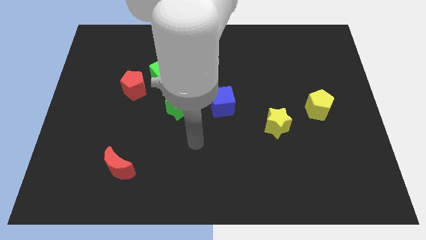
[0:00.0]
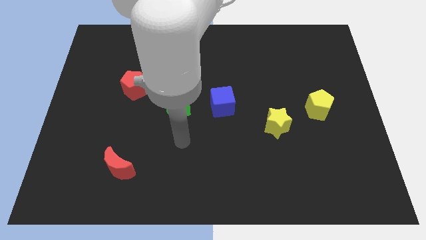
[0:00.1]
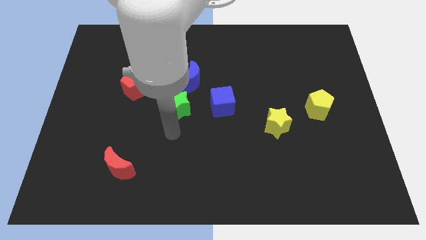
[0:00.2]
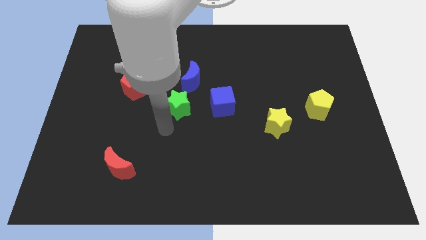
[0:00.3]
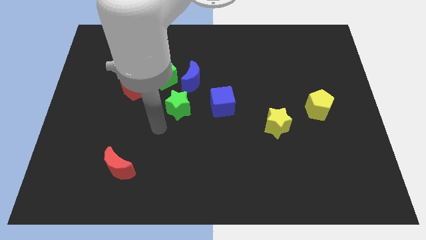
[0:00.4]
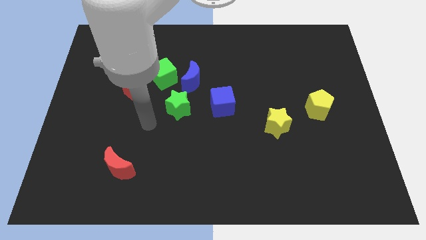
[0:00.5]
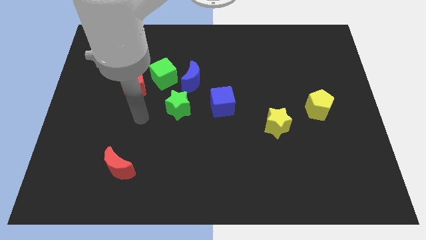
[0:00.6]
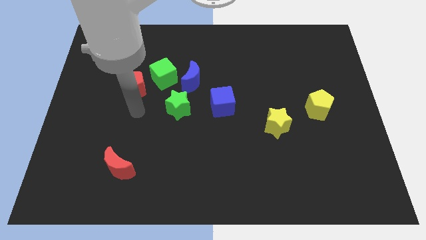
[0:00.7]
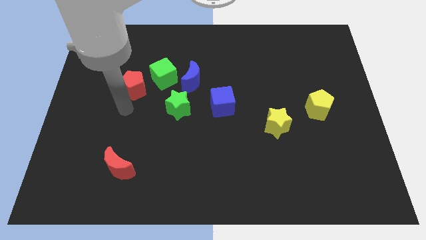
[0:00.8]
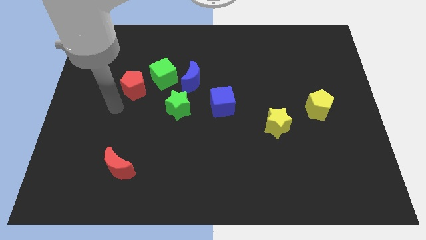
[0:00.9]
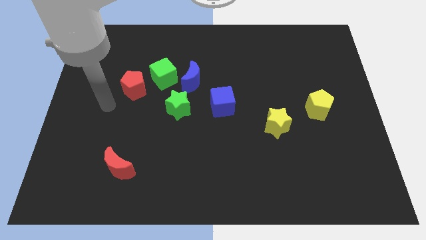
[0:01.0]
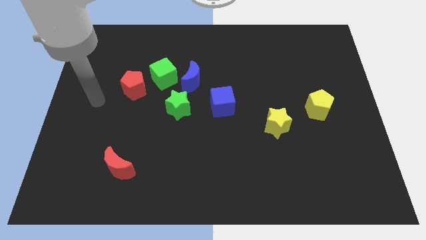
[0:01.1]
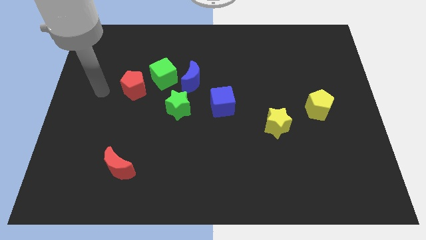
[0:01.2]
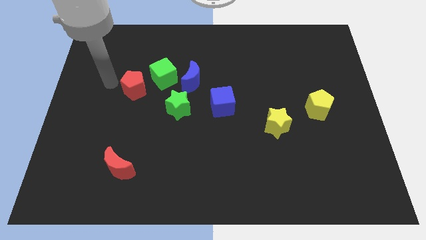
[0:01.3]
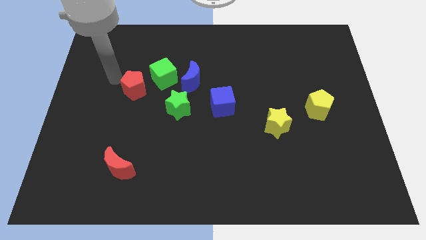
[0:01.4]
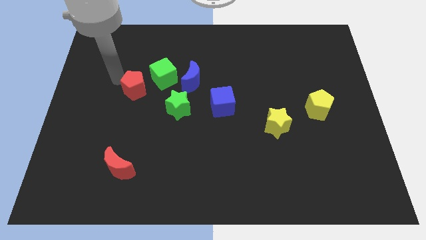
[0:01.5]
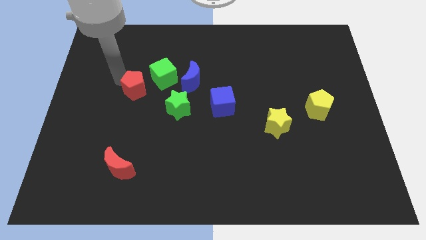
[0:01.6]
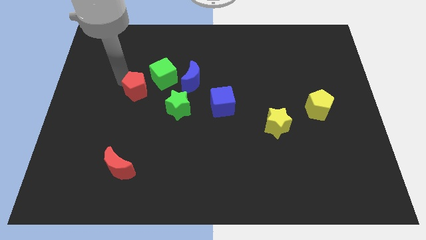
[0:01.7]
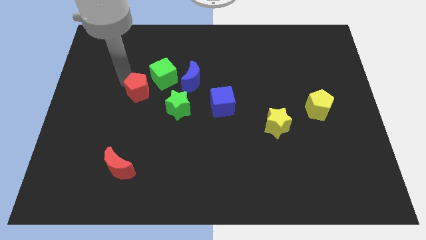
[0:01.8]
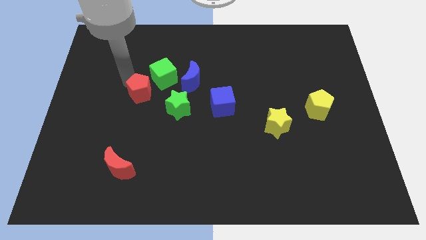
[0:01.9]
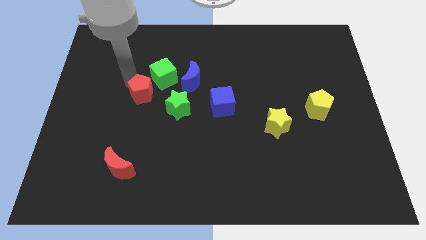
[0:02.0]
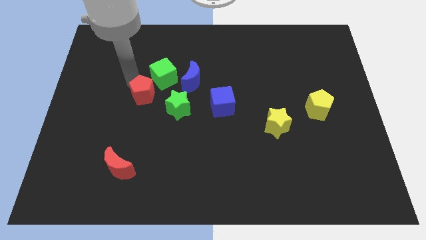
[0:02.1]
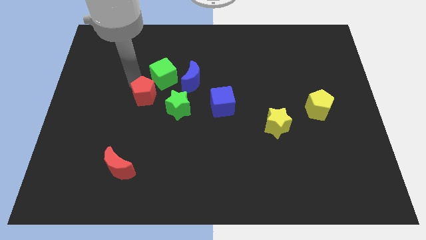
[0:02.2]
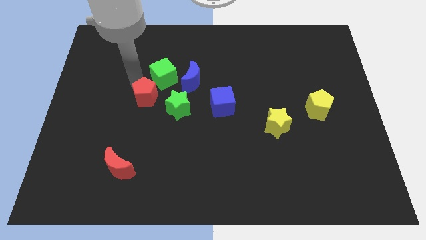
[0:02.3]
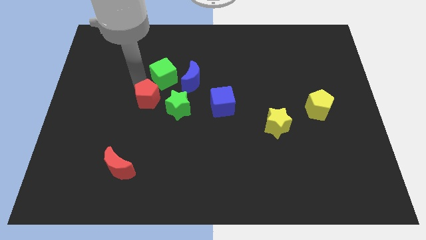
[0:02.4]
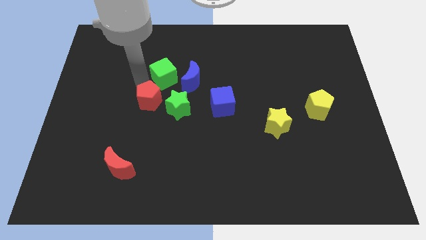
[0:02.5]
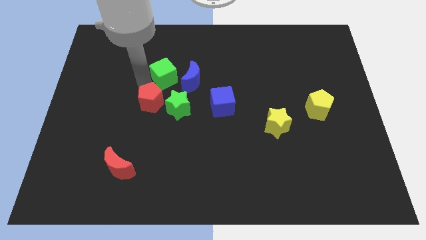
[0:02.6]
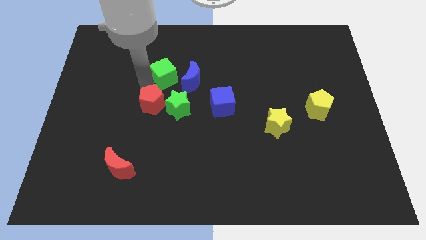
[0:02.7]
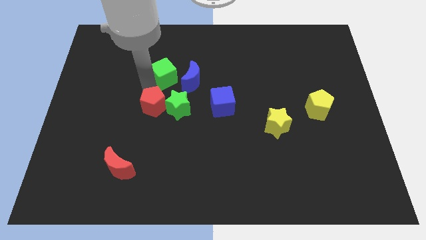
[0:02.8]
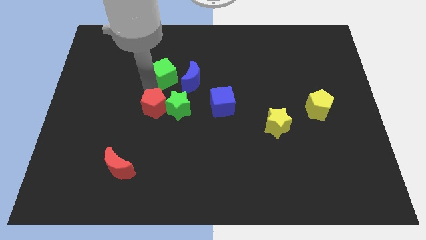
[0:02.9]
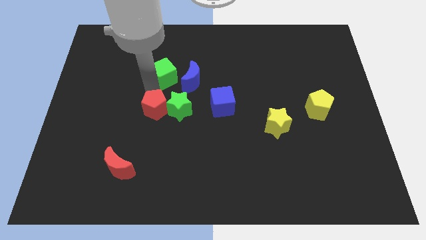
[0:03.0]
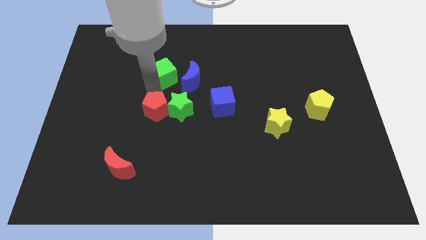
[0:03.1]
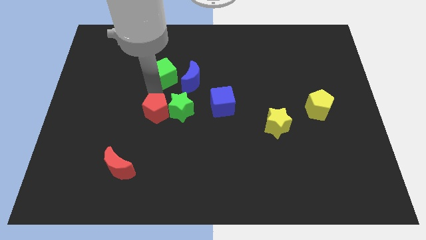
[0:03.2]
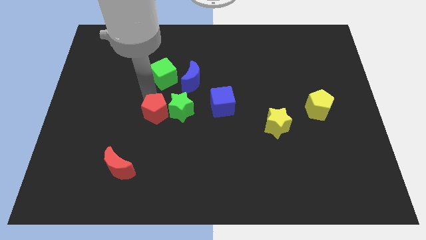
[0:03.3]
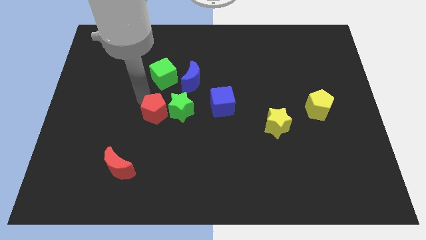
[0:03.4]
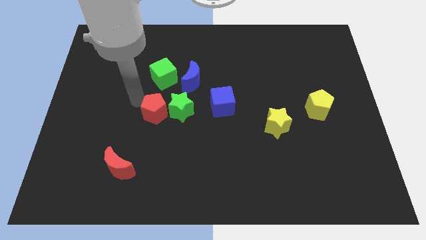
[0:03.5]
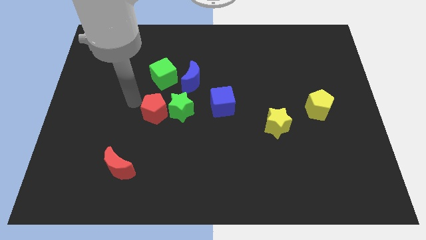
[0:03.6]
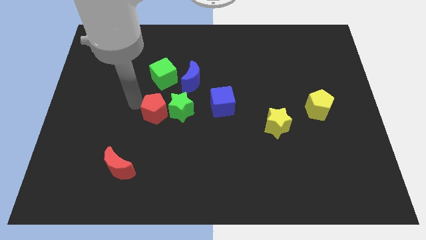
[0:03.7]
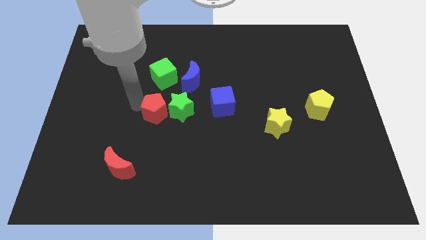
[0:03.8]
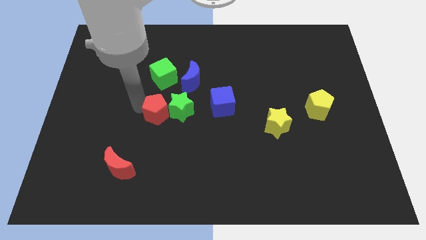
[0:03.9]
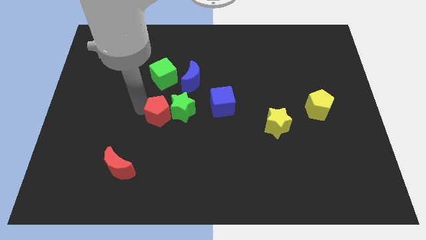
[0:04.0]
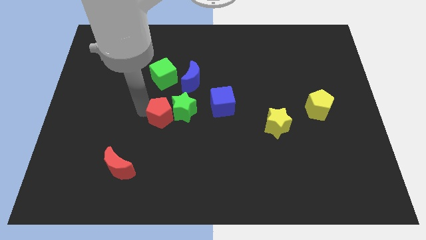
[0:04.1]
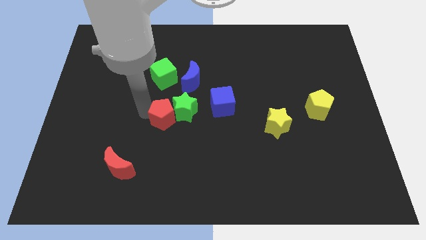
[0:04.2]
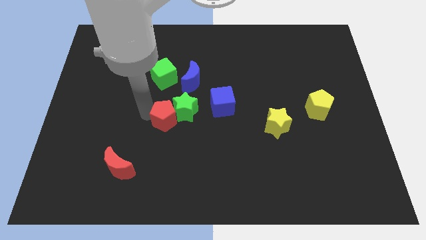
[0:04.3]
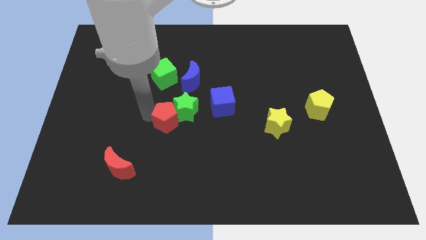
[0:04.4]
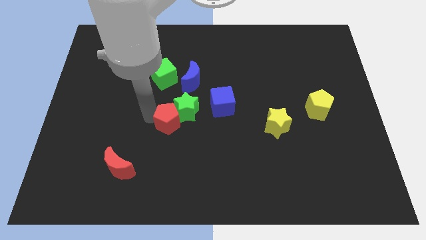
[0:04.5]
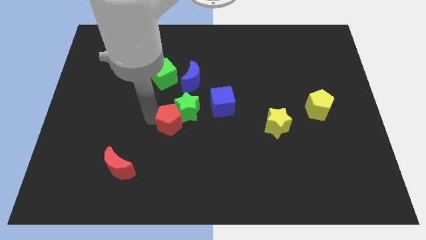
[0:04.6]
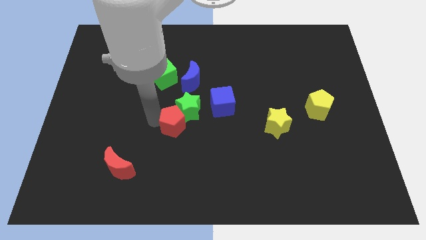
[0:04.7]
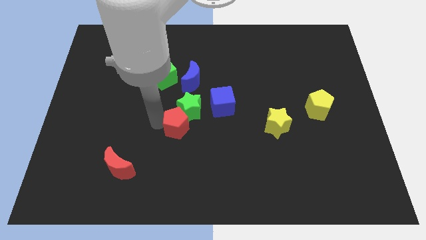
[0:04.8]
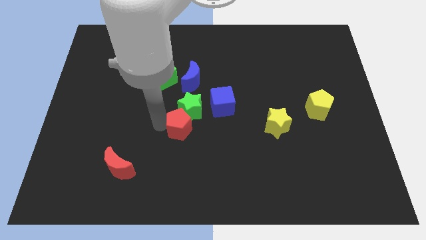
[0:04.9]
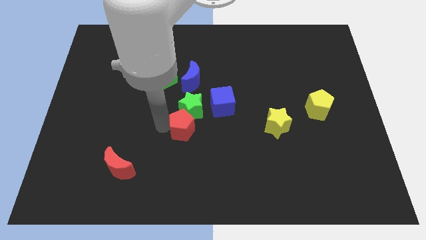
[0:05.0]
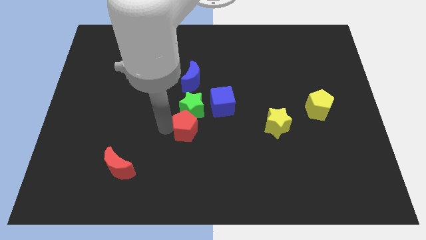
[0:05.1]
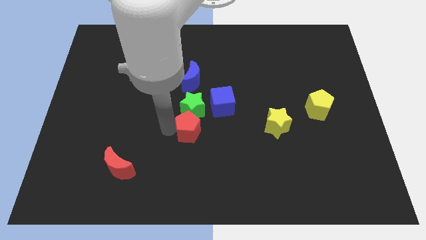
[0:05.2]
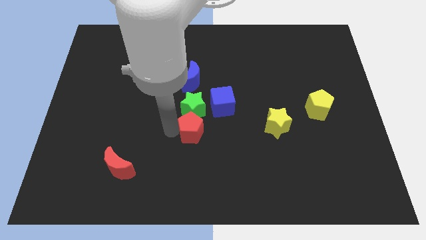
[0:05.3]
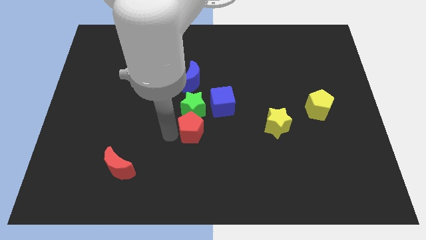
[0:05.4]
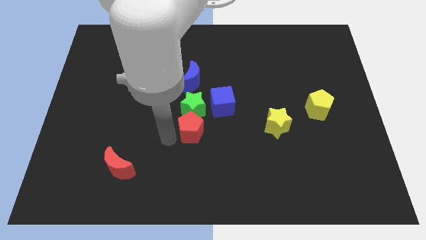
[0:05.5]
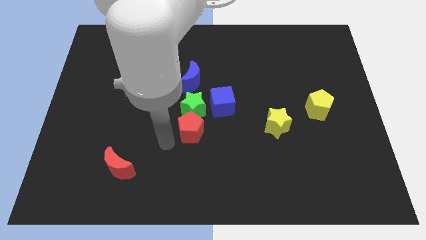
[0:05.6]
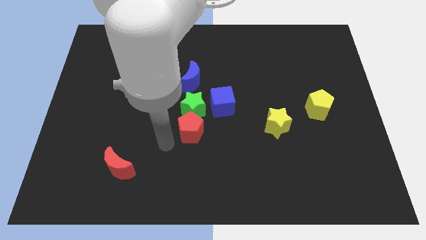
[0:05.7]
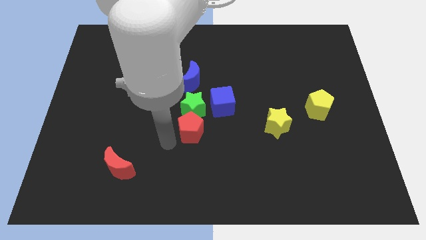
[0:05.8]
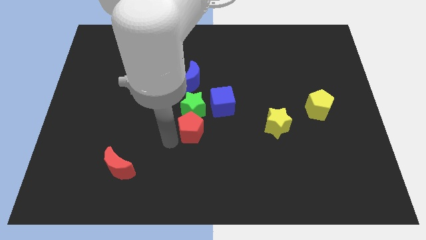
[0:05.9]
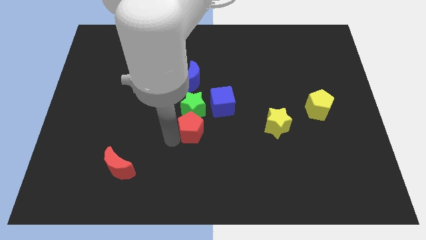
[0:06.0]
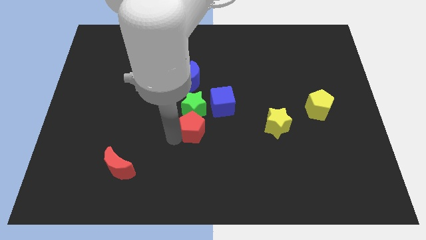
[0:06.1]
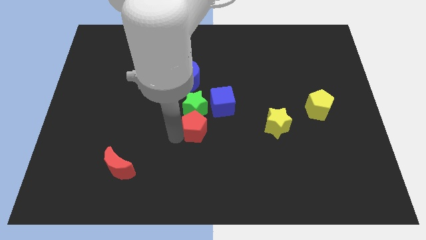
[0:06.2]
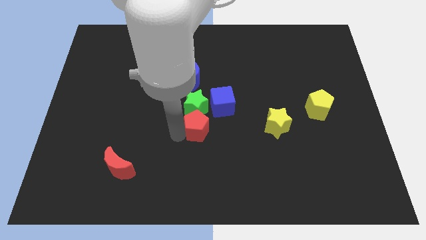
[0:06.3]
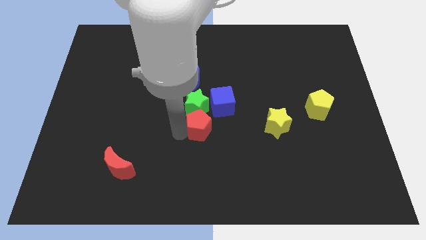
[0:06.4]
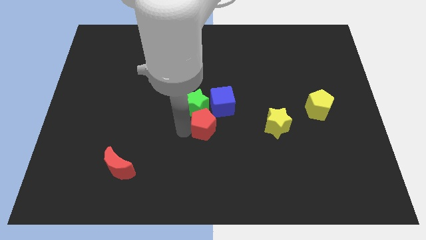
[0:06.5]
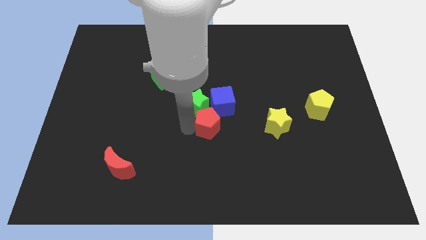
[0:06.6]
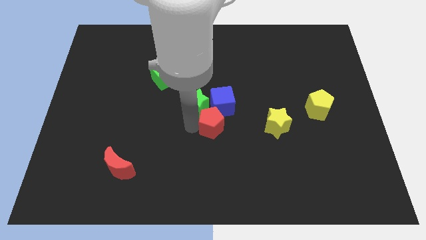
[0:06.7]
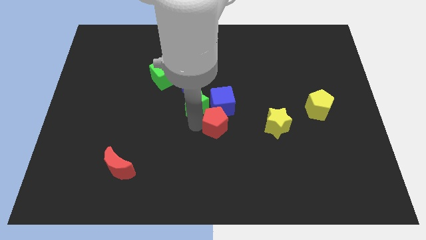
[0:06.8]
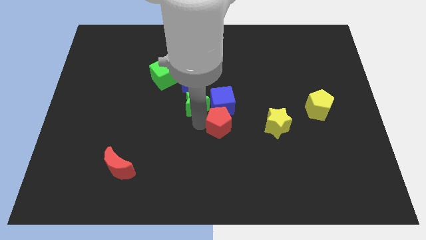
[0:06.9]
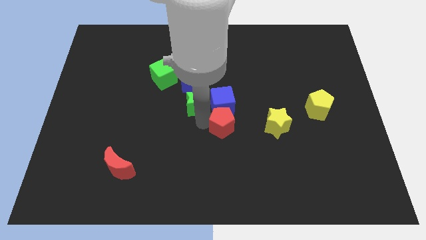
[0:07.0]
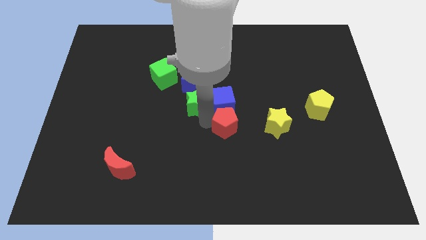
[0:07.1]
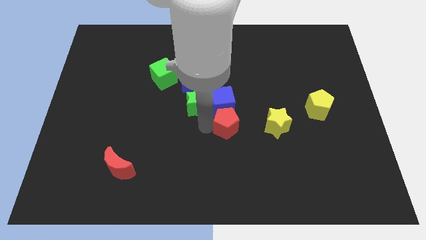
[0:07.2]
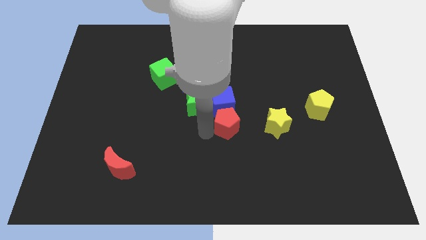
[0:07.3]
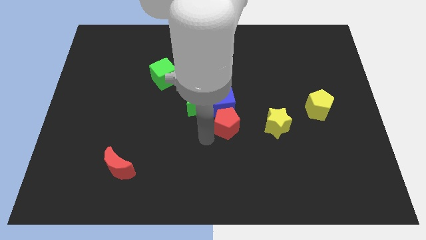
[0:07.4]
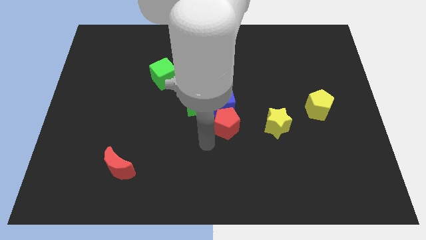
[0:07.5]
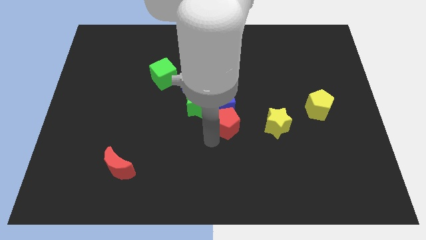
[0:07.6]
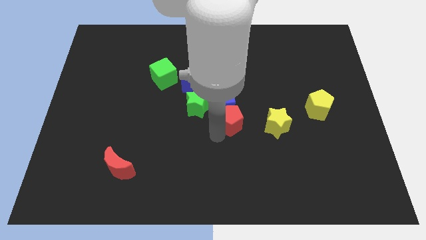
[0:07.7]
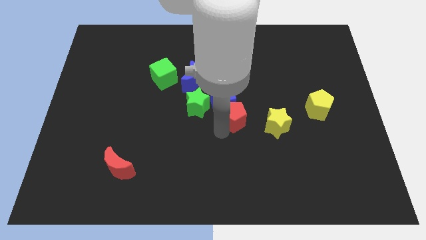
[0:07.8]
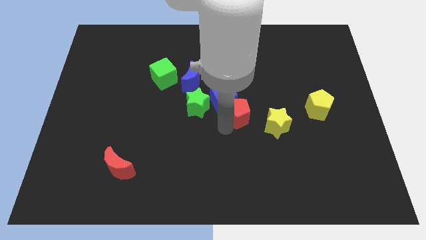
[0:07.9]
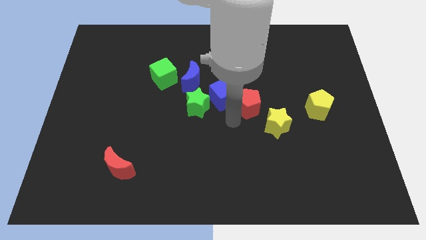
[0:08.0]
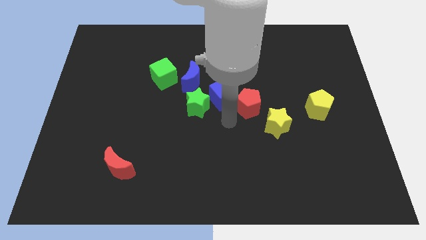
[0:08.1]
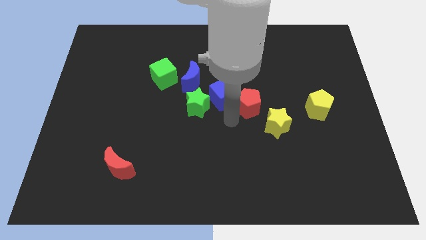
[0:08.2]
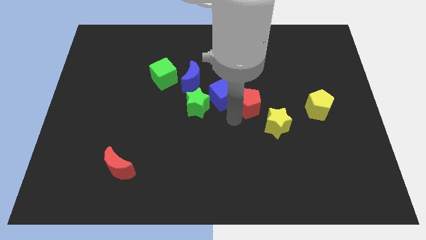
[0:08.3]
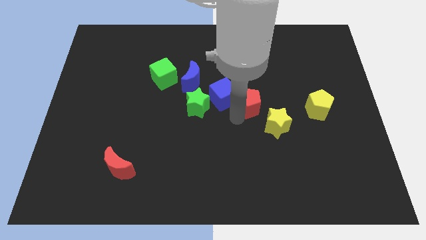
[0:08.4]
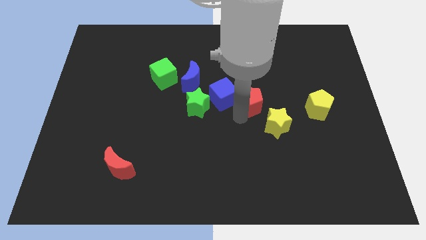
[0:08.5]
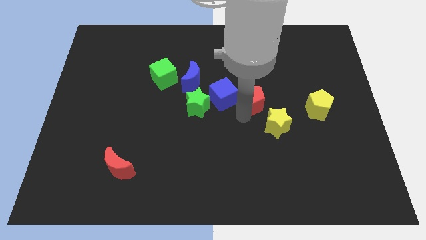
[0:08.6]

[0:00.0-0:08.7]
slide the red pentagon to the top side of the yellow star
